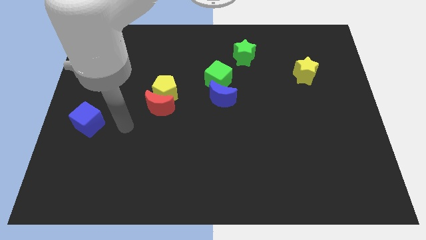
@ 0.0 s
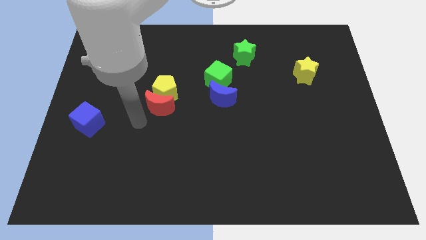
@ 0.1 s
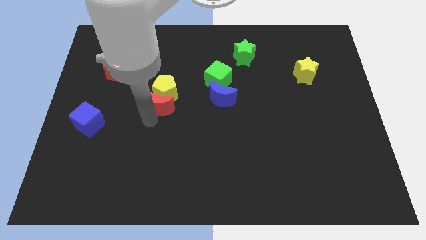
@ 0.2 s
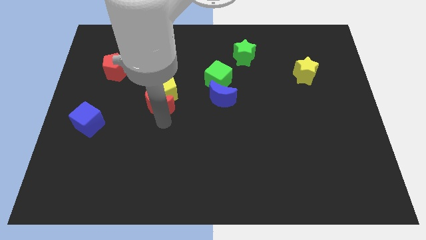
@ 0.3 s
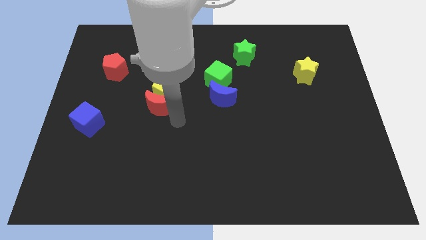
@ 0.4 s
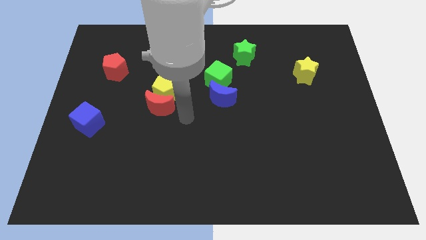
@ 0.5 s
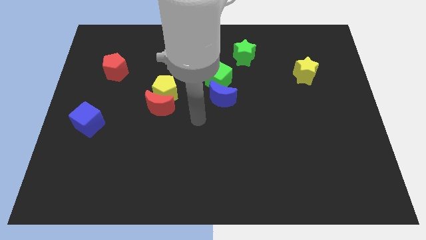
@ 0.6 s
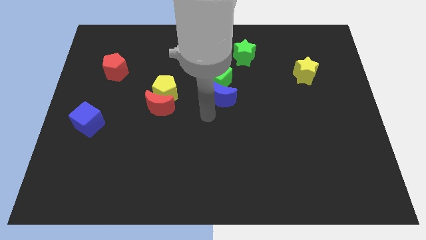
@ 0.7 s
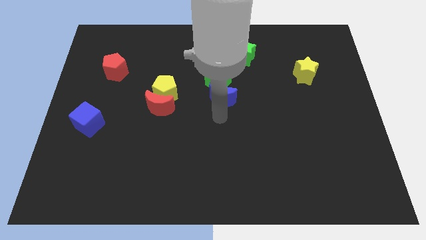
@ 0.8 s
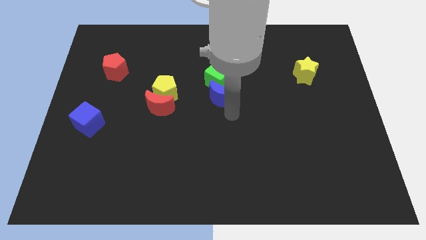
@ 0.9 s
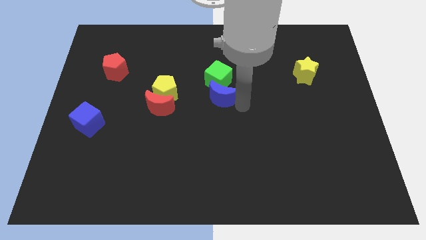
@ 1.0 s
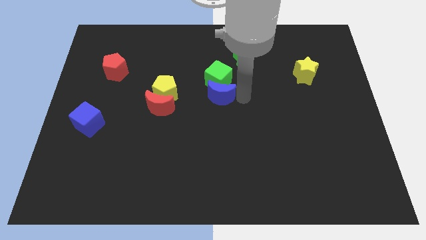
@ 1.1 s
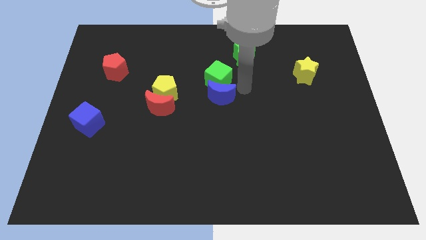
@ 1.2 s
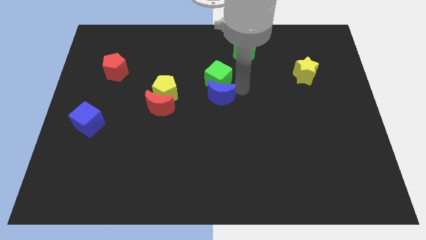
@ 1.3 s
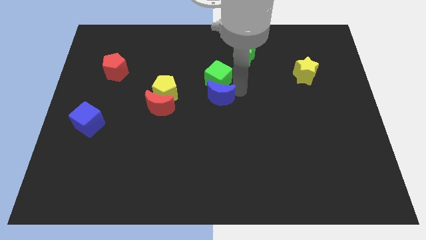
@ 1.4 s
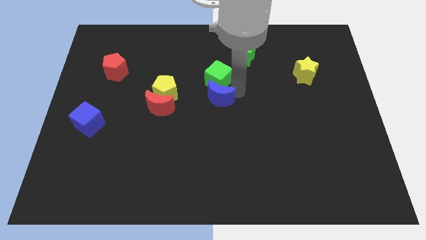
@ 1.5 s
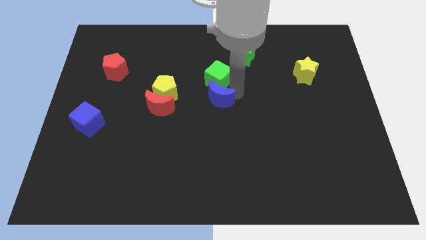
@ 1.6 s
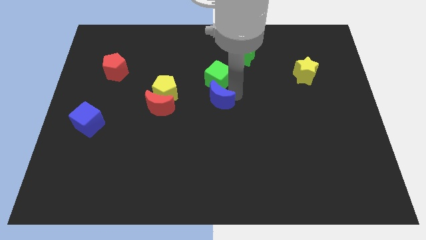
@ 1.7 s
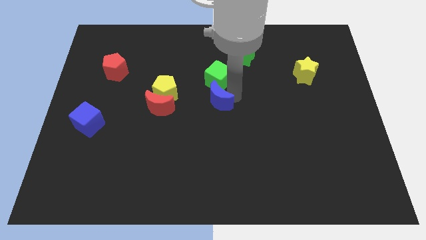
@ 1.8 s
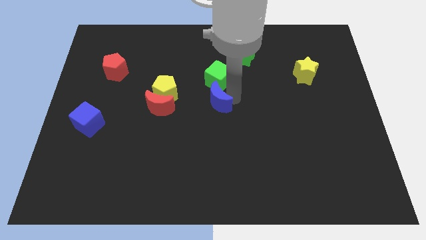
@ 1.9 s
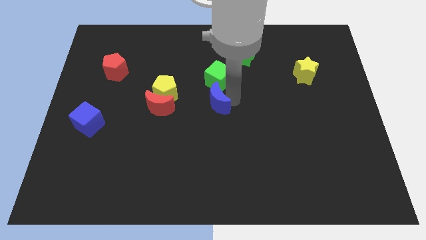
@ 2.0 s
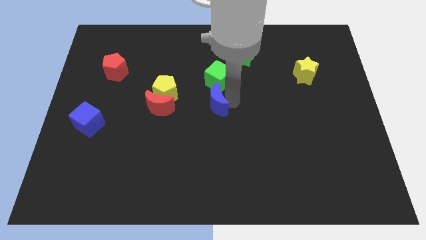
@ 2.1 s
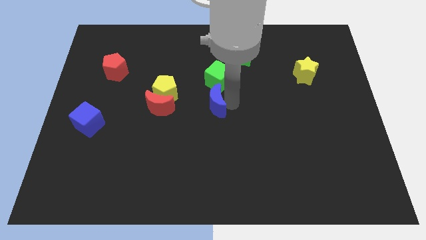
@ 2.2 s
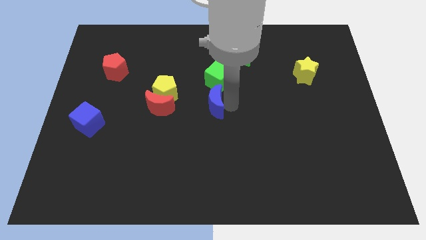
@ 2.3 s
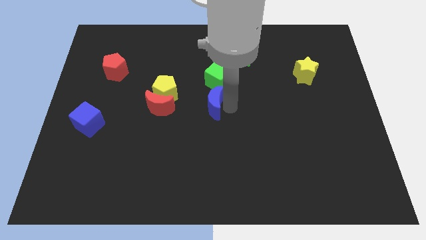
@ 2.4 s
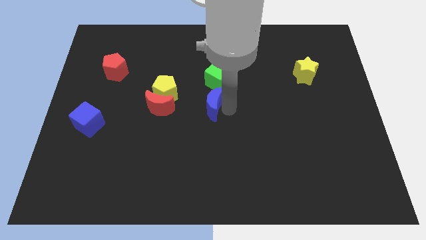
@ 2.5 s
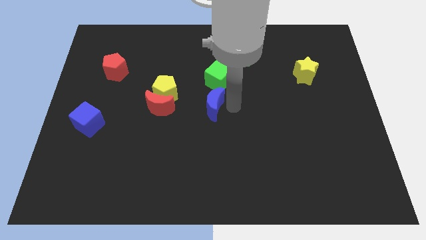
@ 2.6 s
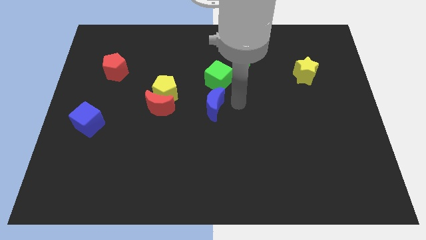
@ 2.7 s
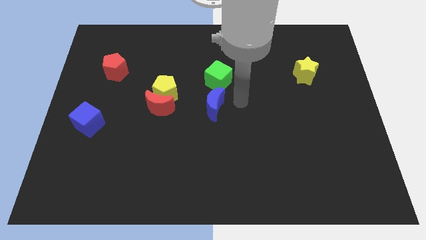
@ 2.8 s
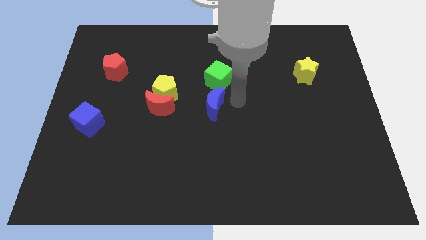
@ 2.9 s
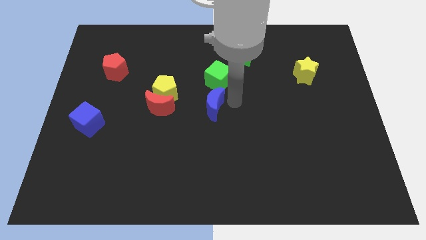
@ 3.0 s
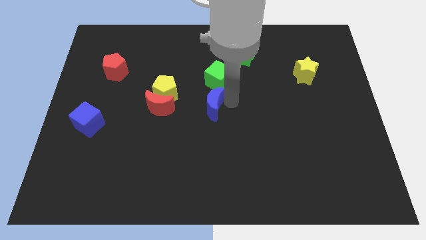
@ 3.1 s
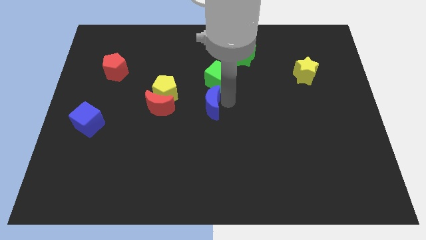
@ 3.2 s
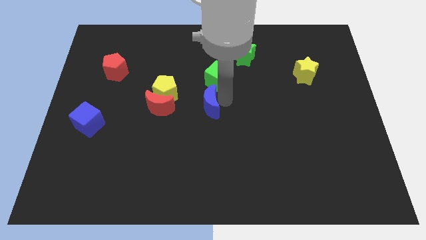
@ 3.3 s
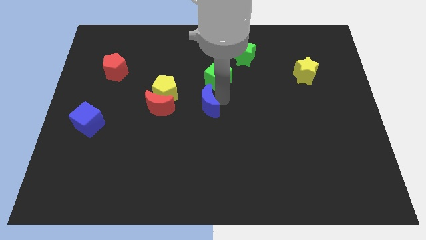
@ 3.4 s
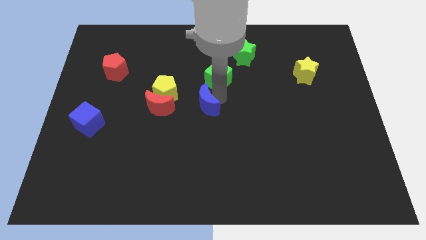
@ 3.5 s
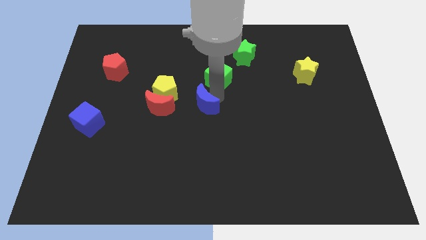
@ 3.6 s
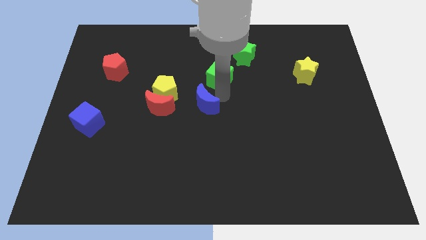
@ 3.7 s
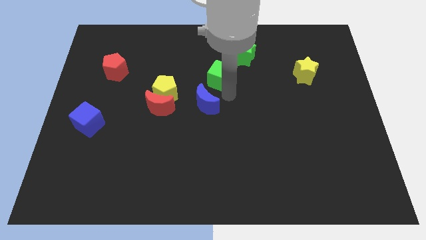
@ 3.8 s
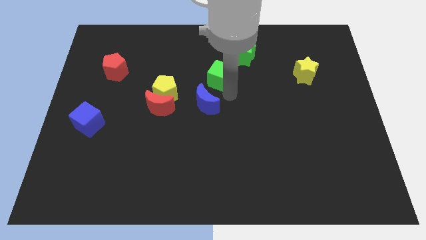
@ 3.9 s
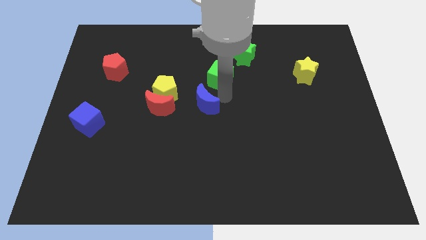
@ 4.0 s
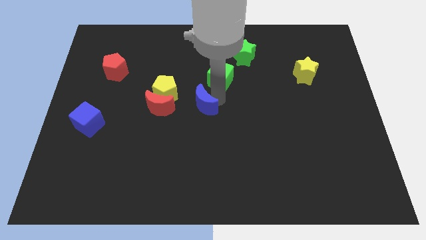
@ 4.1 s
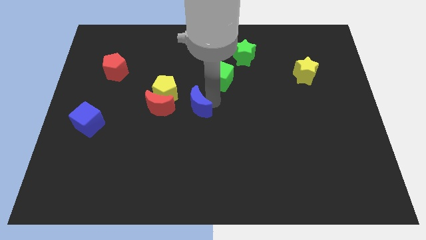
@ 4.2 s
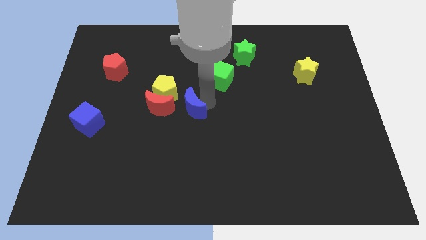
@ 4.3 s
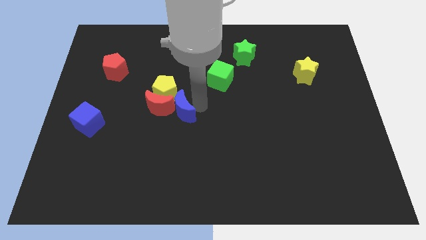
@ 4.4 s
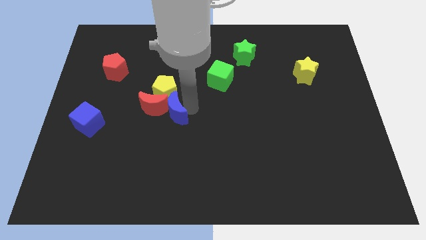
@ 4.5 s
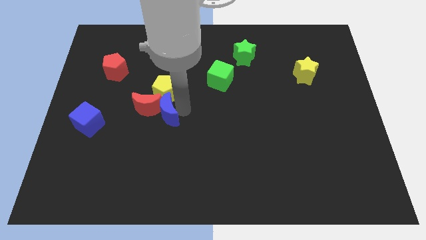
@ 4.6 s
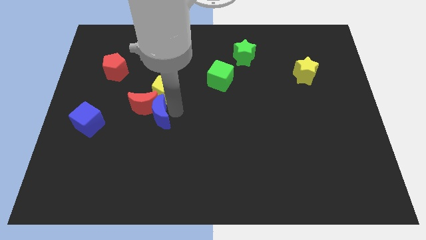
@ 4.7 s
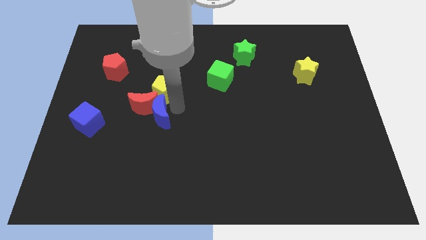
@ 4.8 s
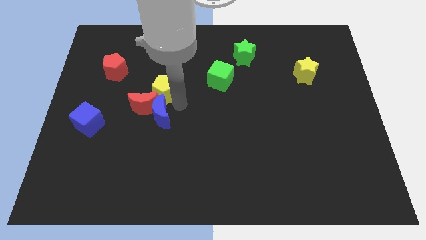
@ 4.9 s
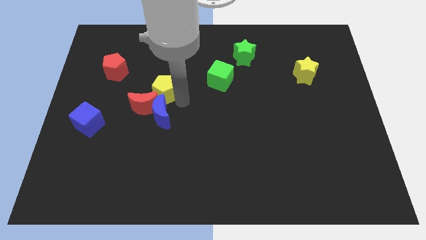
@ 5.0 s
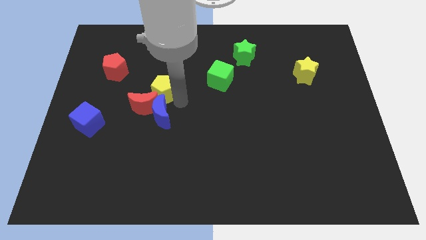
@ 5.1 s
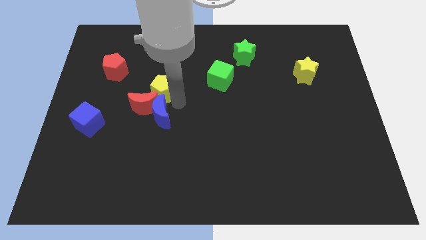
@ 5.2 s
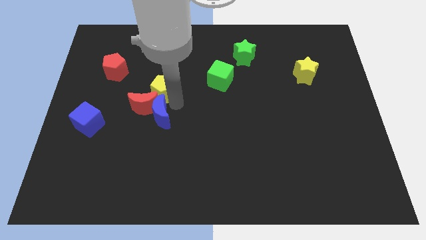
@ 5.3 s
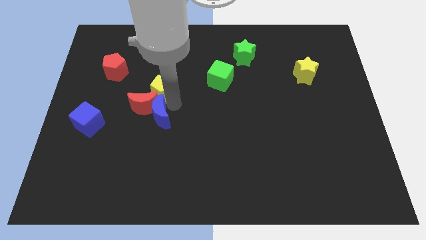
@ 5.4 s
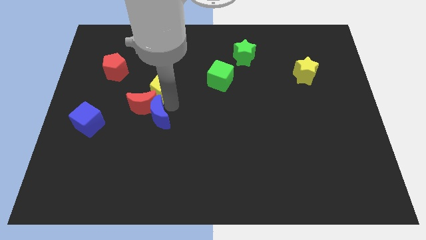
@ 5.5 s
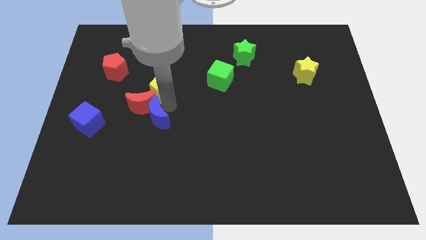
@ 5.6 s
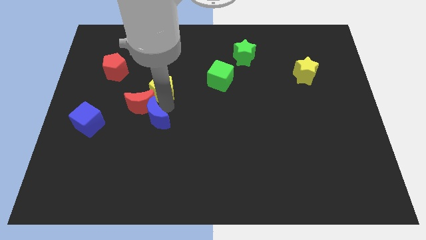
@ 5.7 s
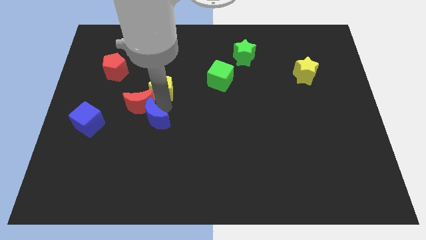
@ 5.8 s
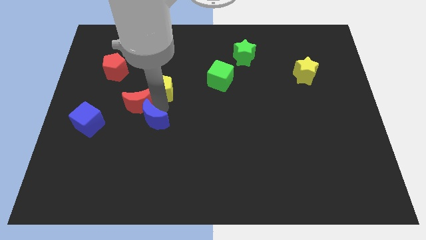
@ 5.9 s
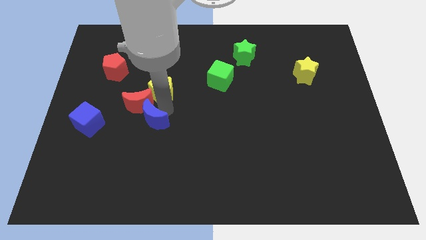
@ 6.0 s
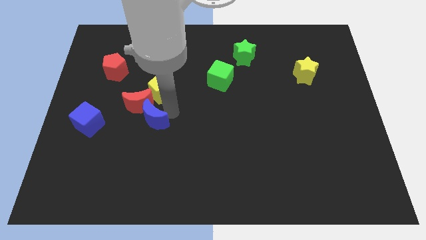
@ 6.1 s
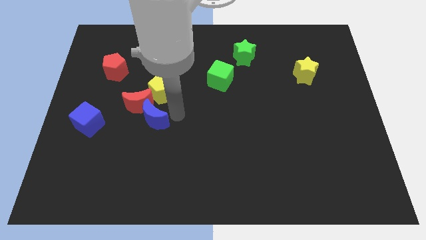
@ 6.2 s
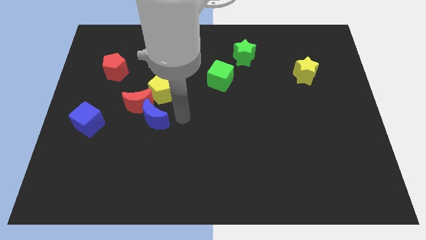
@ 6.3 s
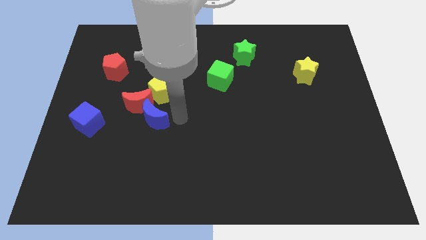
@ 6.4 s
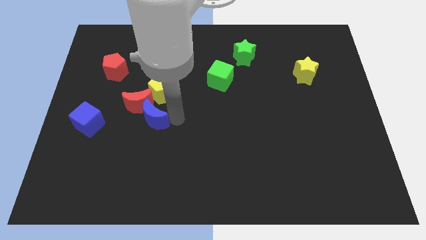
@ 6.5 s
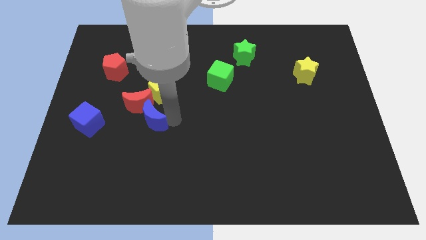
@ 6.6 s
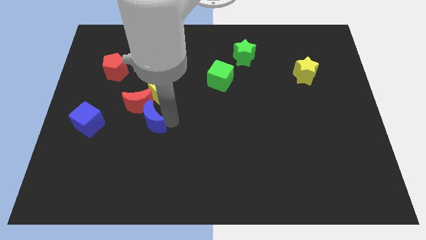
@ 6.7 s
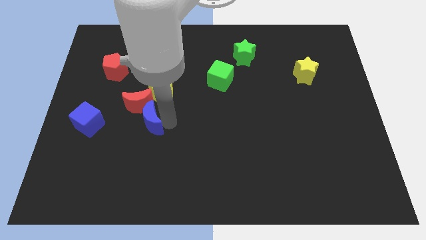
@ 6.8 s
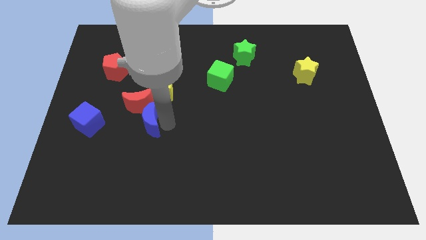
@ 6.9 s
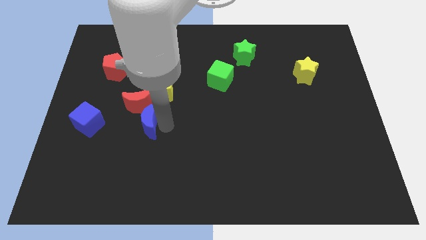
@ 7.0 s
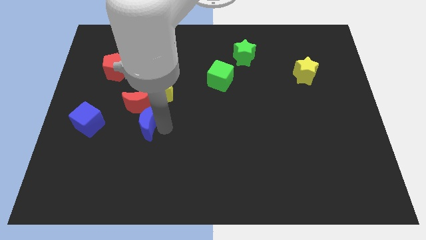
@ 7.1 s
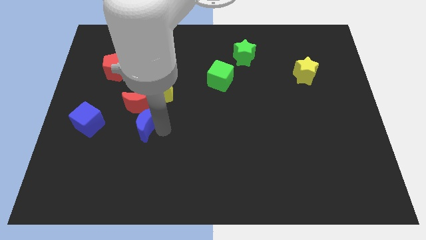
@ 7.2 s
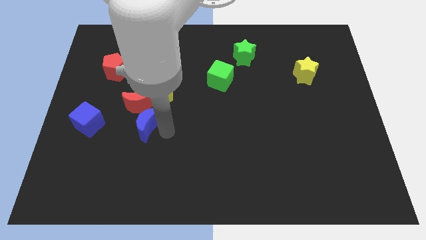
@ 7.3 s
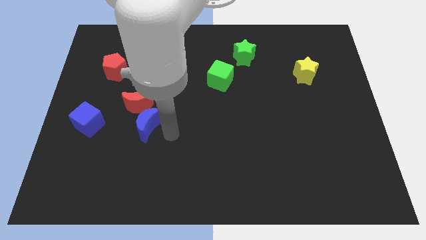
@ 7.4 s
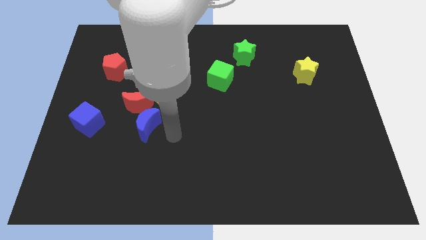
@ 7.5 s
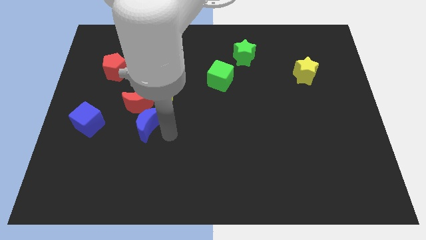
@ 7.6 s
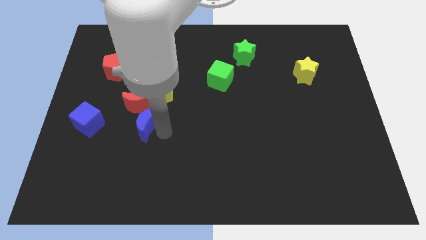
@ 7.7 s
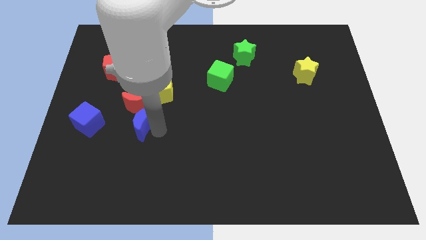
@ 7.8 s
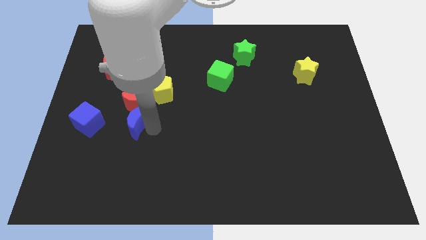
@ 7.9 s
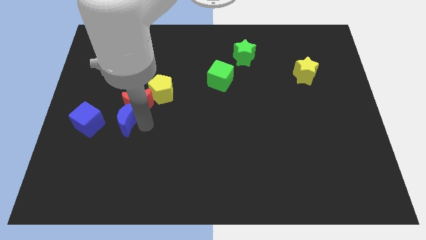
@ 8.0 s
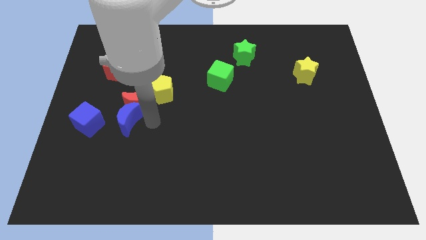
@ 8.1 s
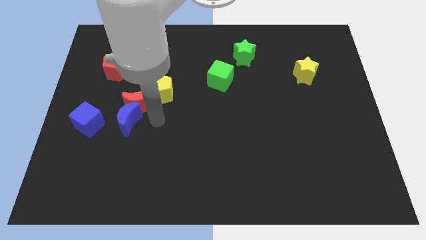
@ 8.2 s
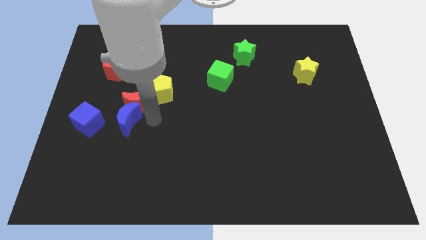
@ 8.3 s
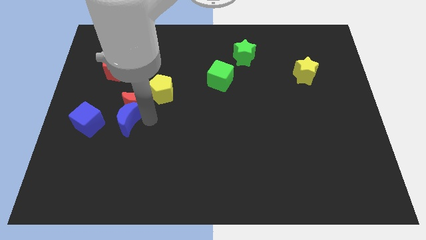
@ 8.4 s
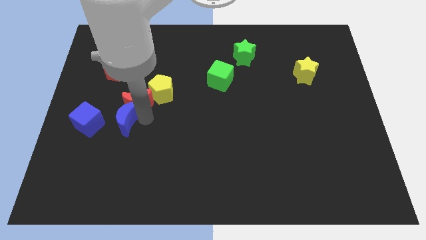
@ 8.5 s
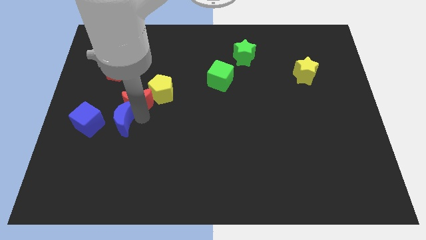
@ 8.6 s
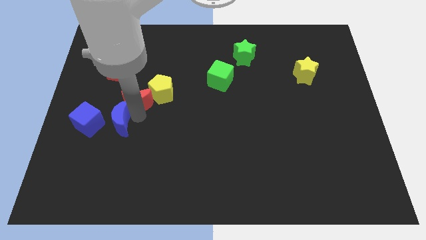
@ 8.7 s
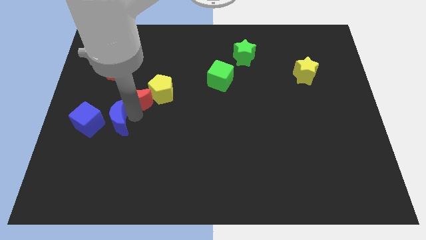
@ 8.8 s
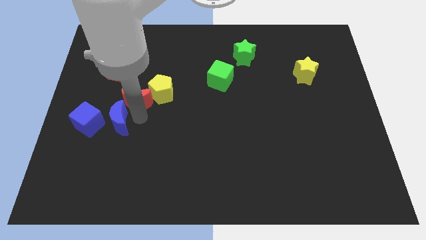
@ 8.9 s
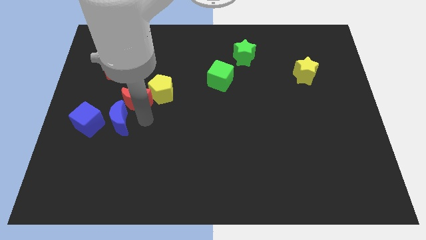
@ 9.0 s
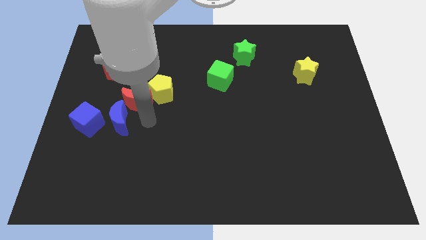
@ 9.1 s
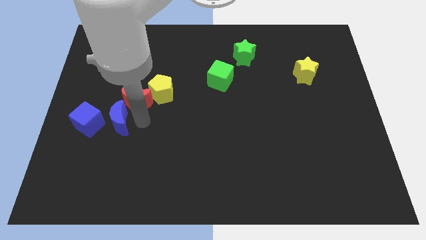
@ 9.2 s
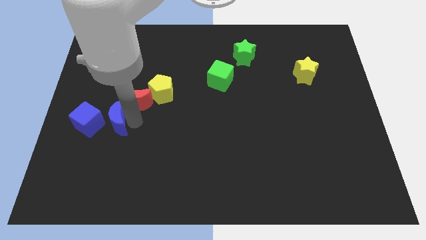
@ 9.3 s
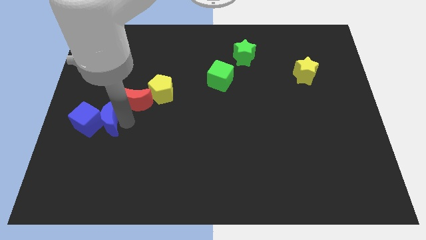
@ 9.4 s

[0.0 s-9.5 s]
move the blue moon towards the blue cube
